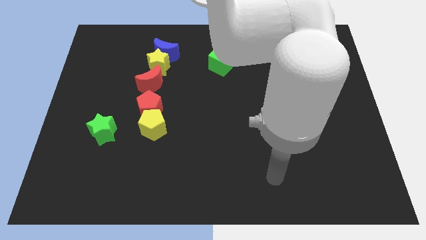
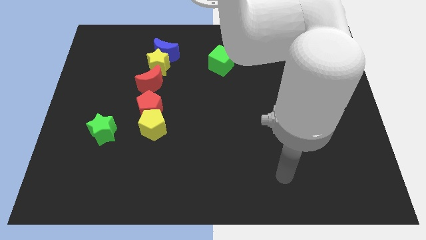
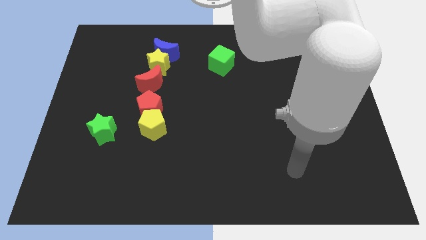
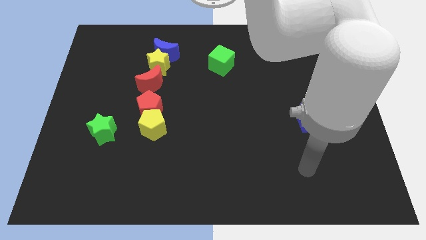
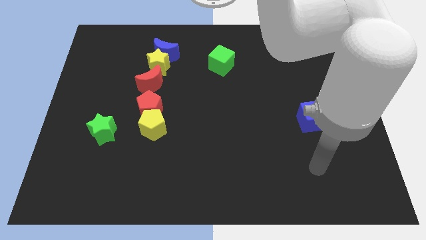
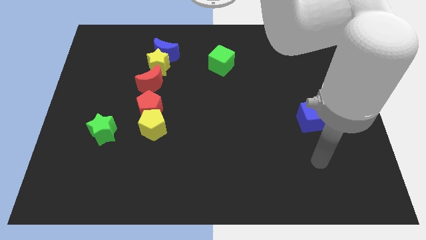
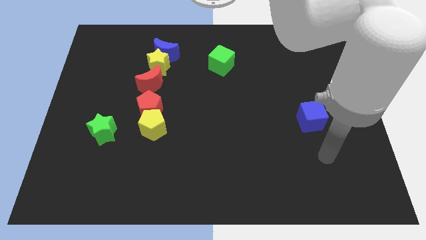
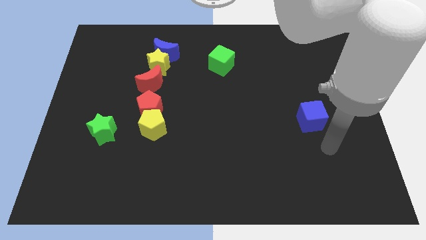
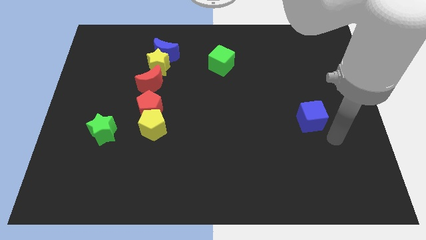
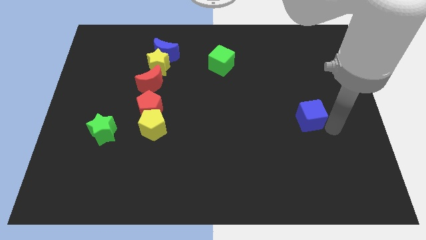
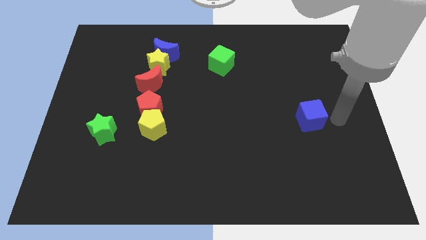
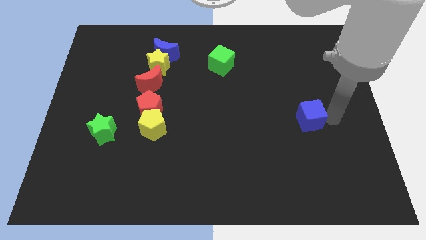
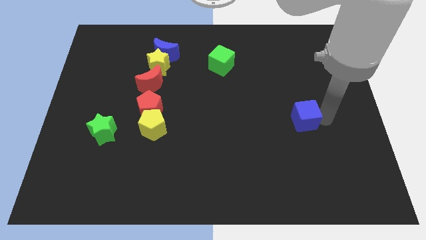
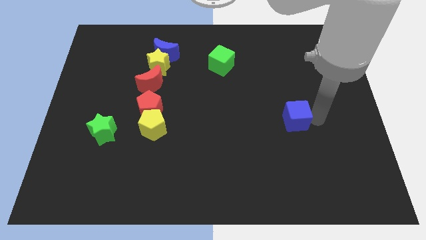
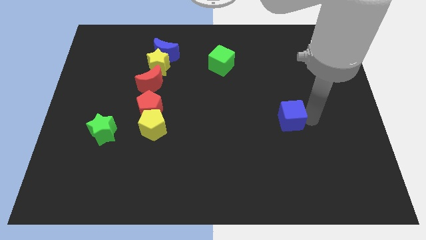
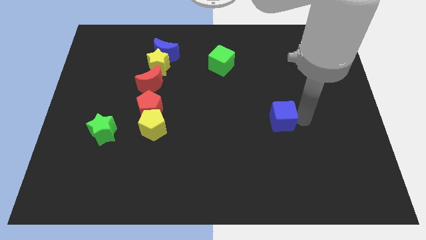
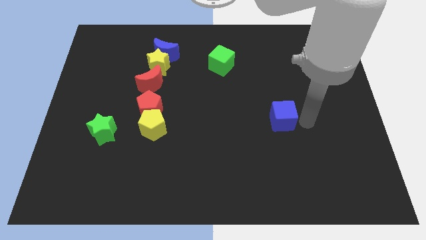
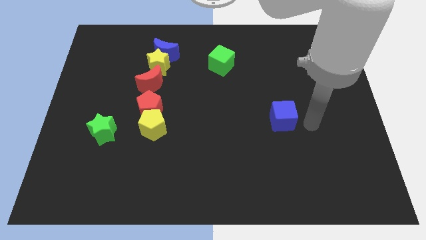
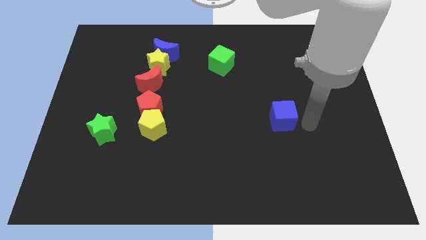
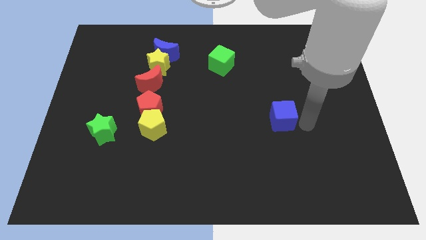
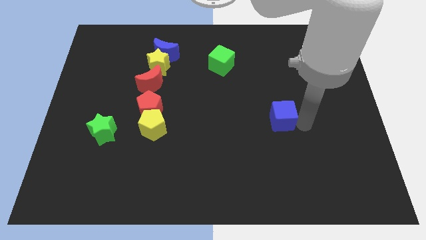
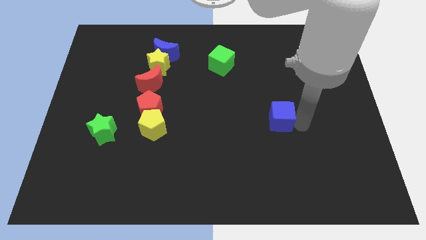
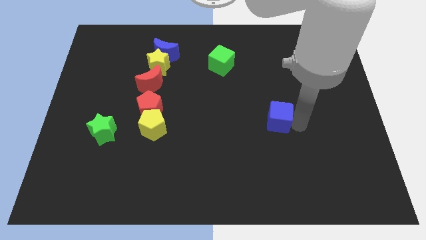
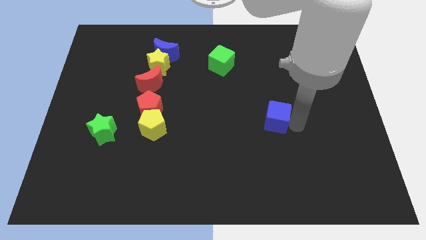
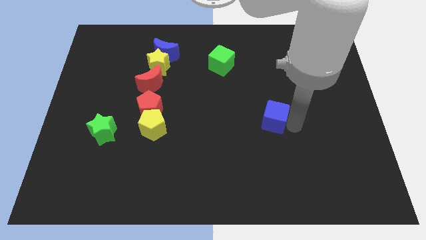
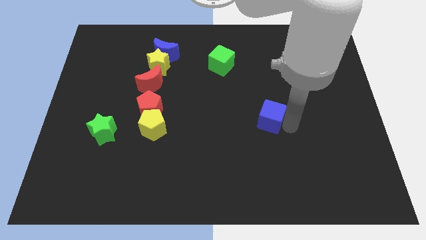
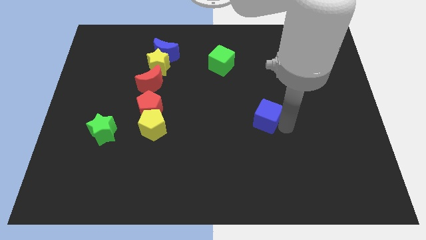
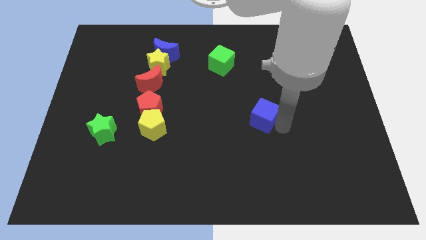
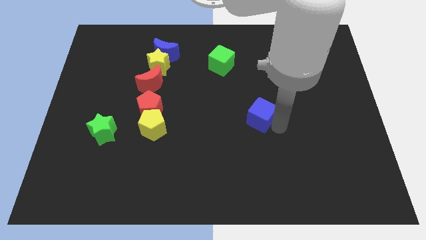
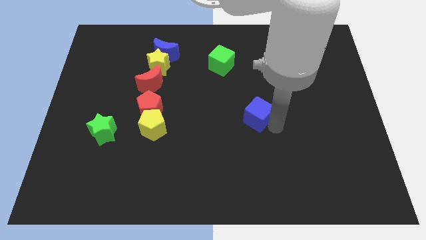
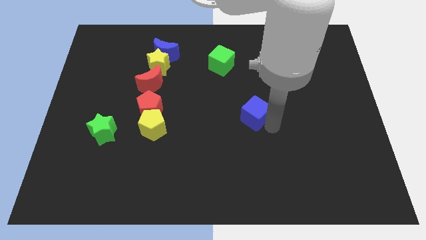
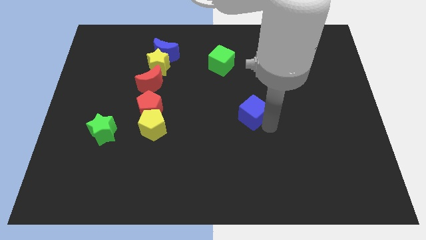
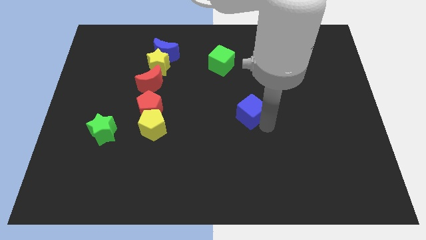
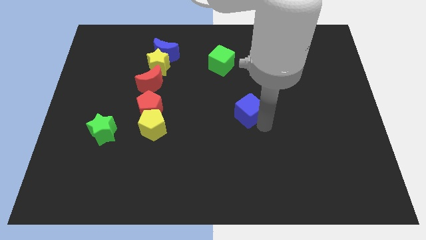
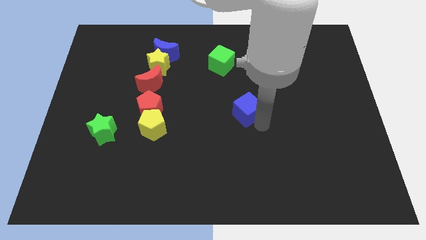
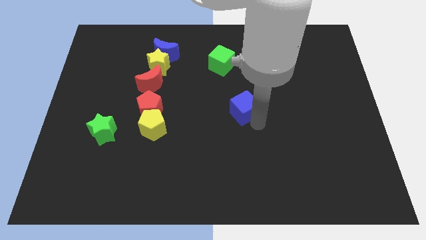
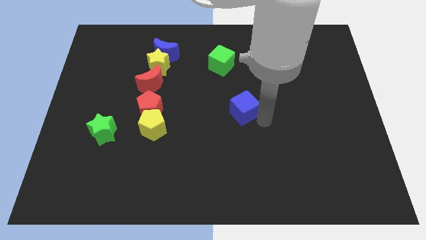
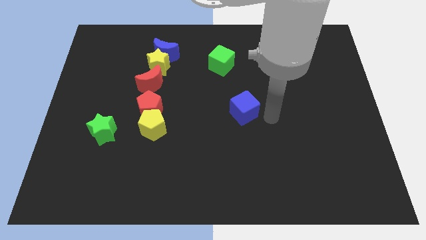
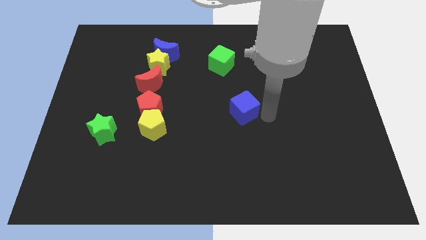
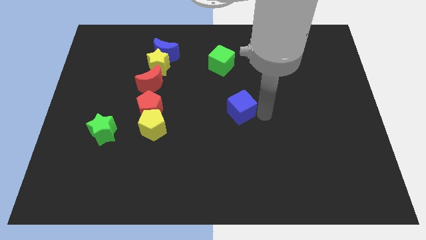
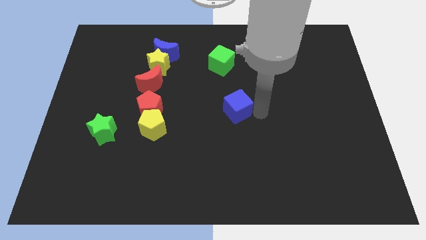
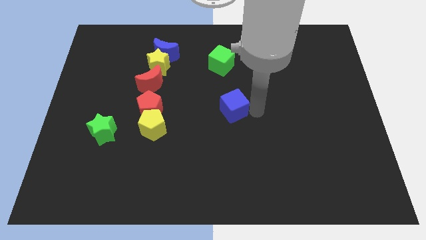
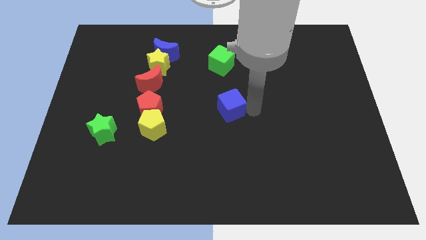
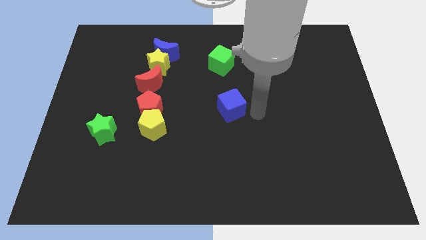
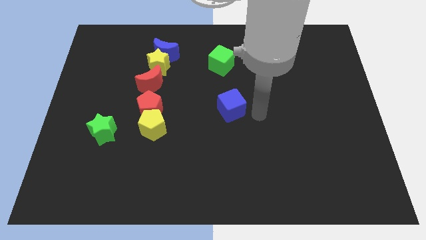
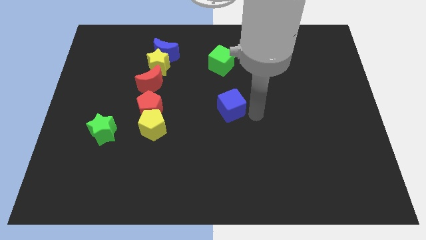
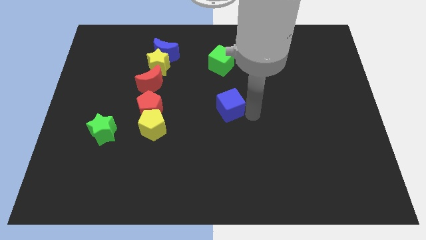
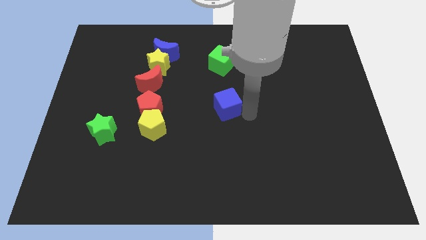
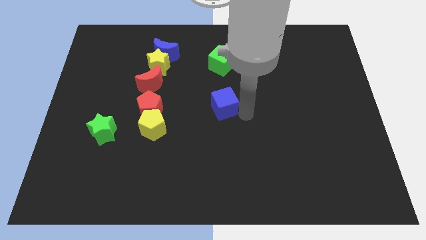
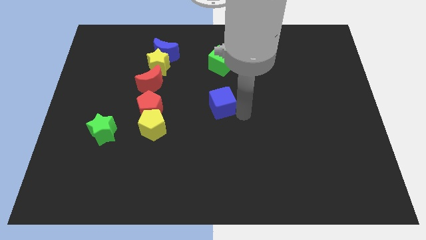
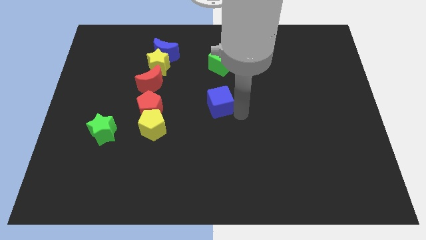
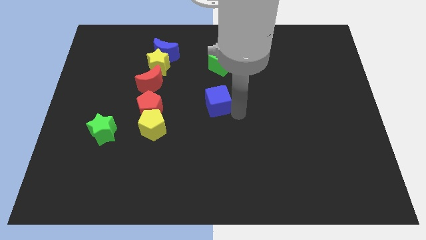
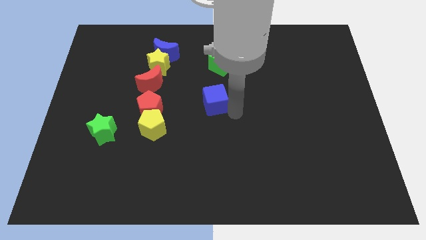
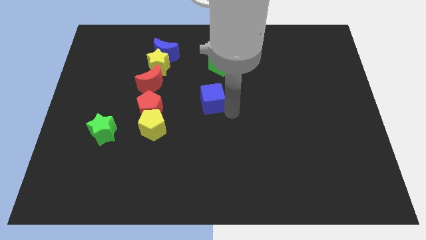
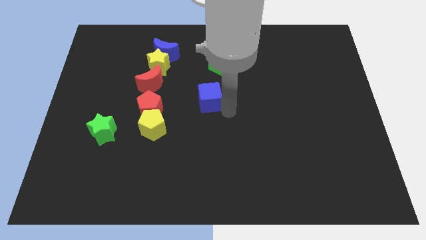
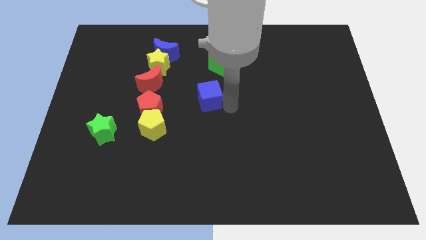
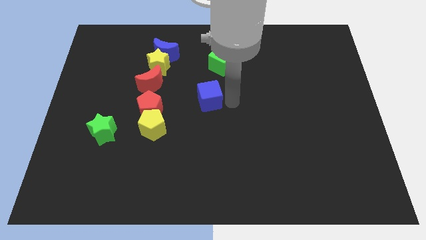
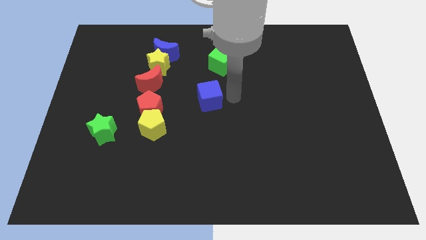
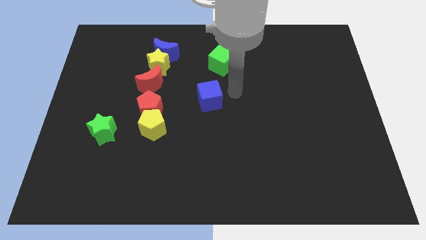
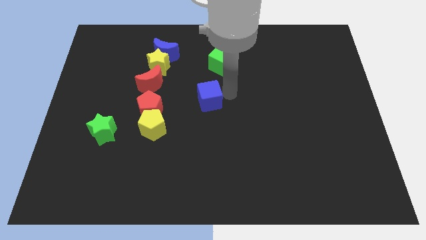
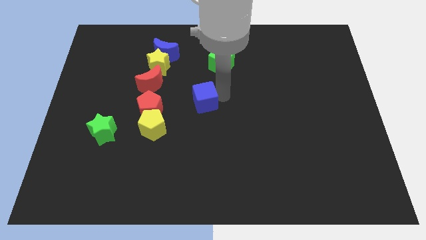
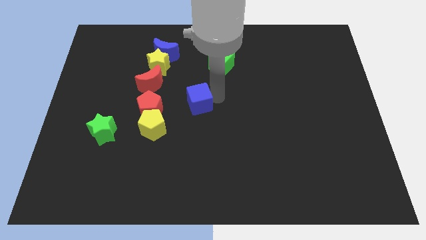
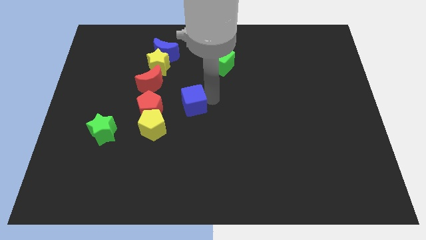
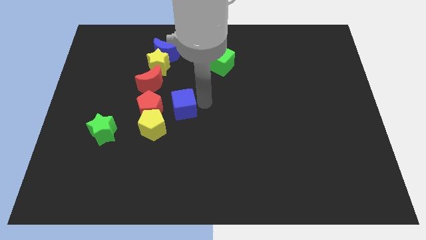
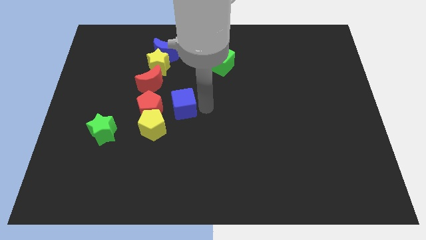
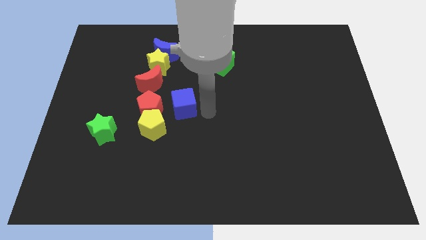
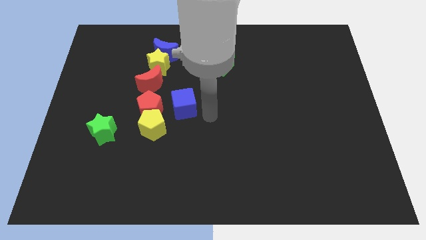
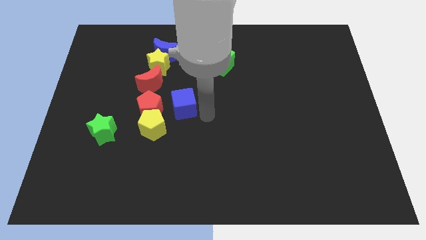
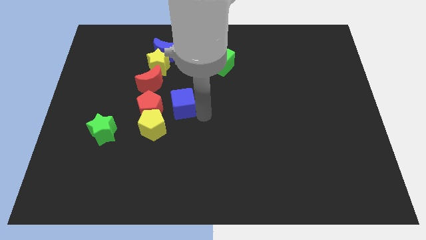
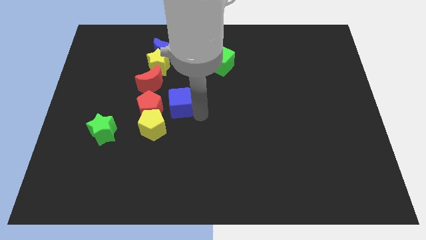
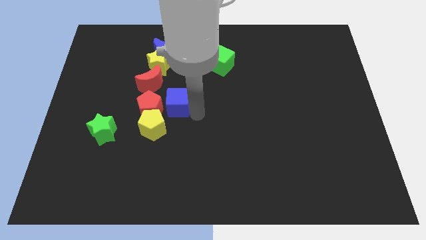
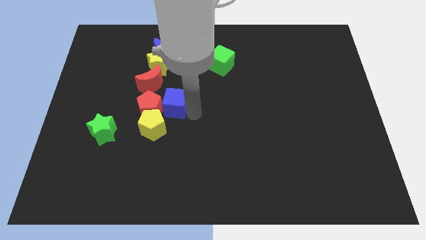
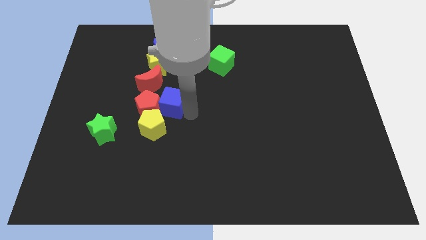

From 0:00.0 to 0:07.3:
push the blue cube below the yellow star
